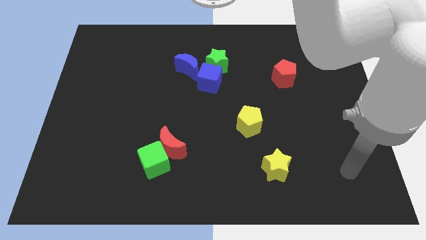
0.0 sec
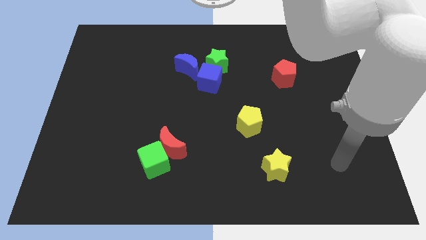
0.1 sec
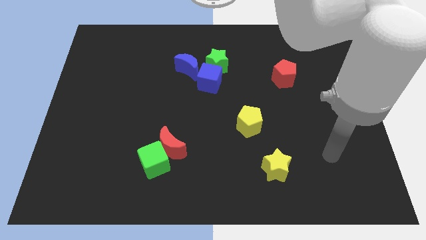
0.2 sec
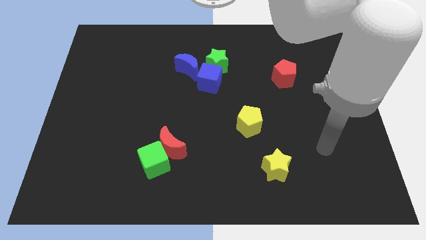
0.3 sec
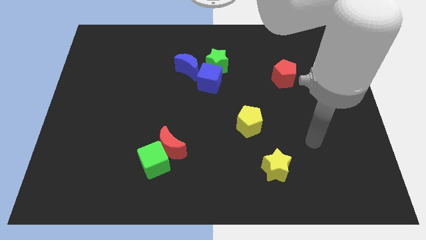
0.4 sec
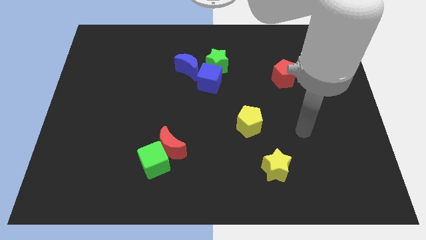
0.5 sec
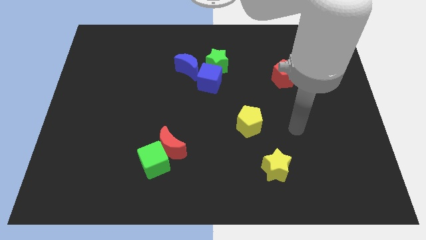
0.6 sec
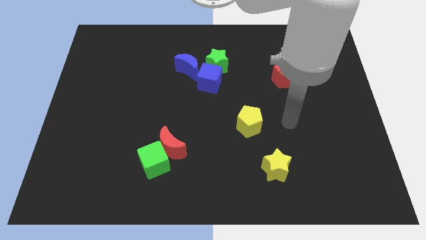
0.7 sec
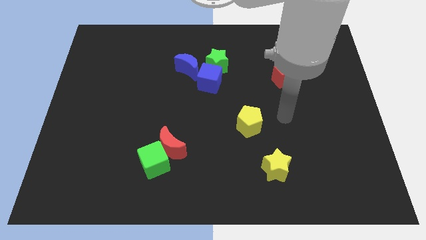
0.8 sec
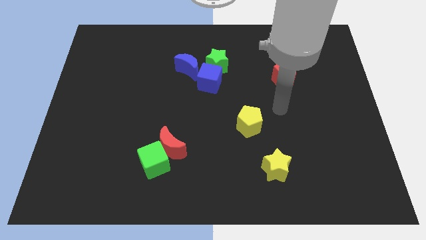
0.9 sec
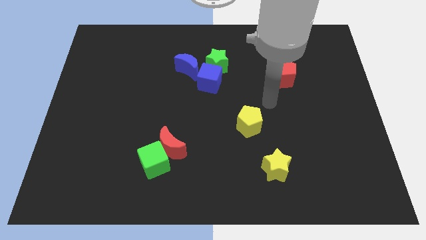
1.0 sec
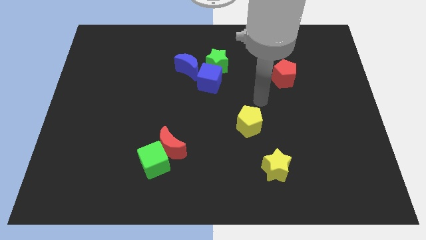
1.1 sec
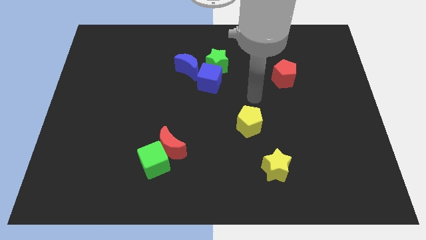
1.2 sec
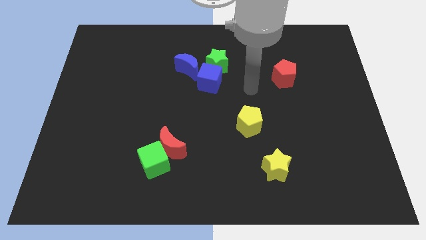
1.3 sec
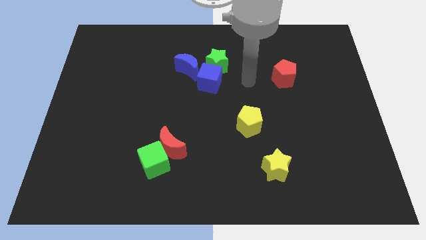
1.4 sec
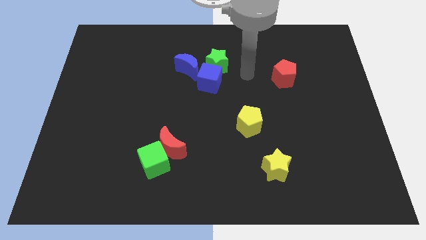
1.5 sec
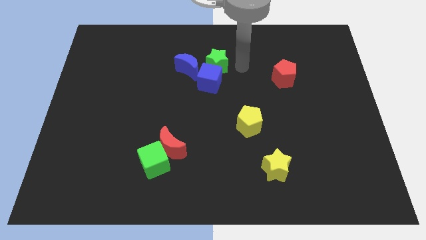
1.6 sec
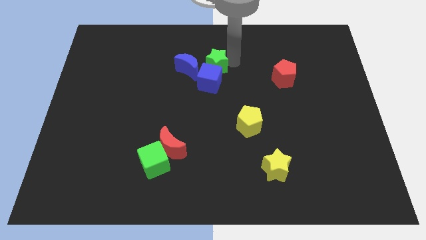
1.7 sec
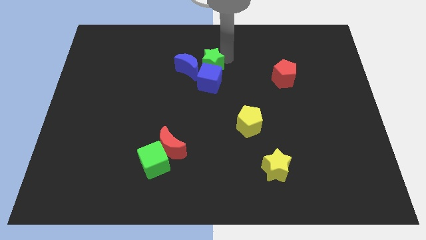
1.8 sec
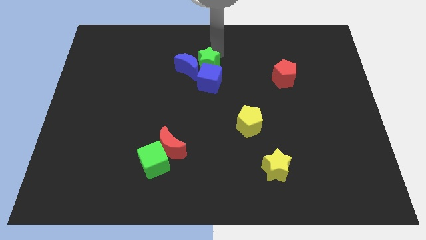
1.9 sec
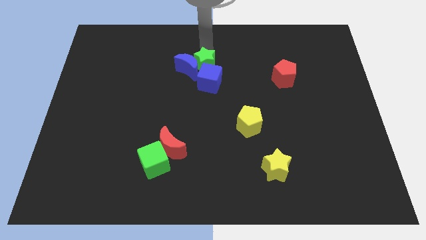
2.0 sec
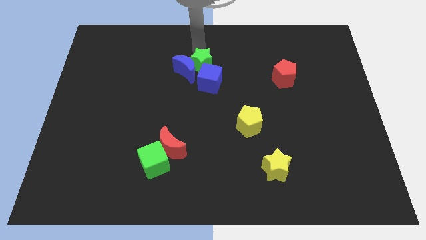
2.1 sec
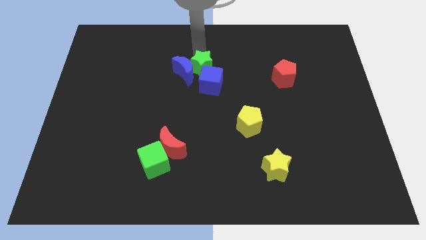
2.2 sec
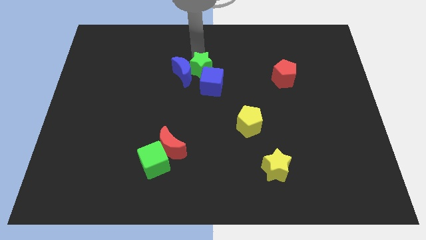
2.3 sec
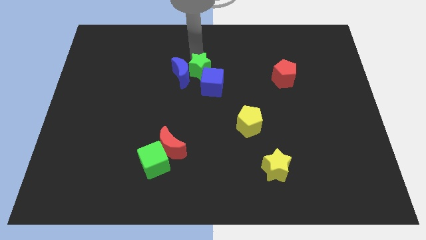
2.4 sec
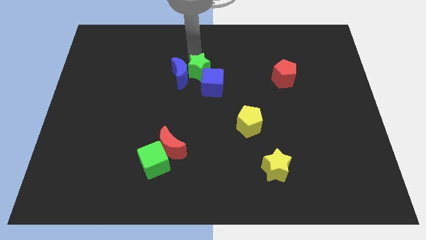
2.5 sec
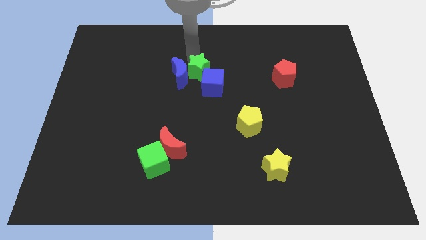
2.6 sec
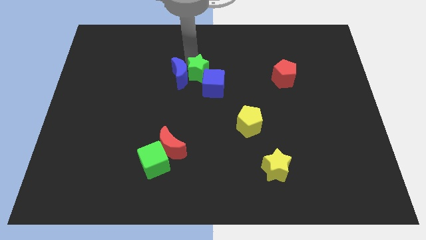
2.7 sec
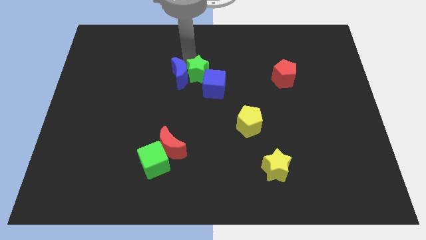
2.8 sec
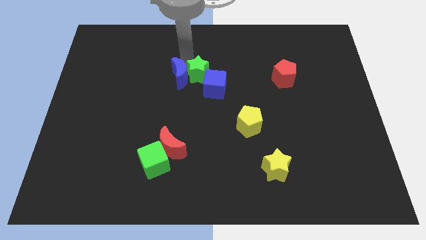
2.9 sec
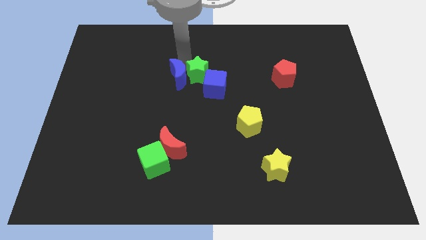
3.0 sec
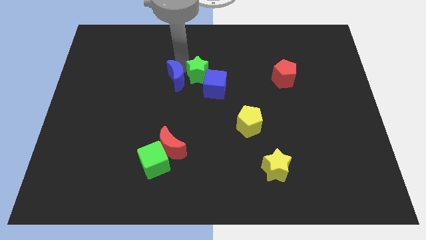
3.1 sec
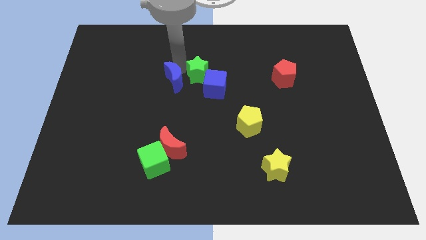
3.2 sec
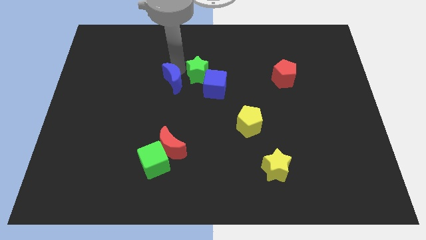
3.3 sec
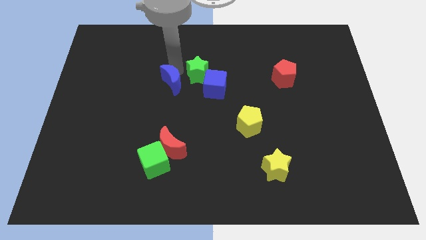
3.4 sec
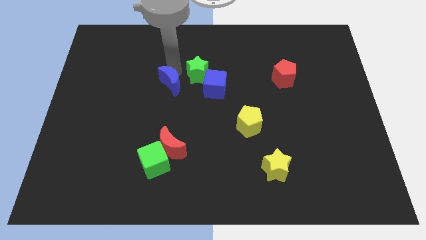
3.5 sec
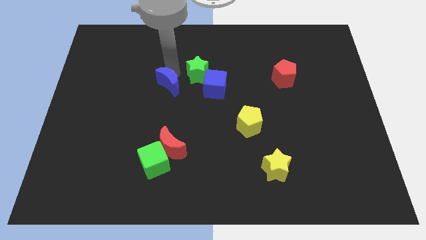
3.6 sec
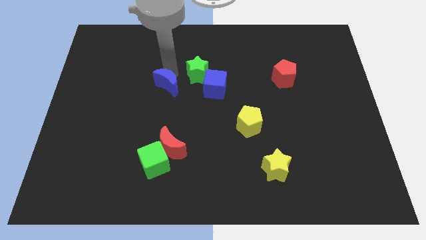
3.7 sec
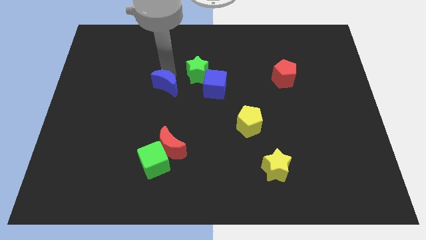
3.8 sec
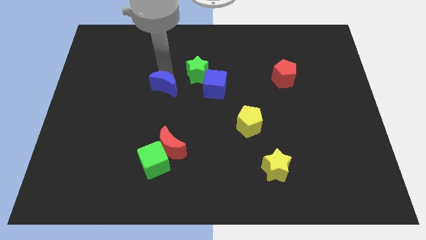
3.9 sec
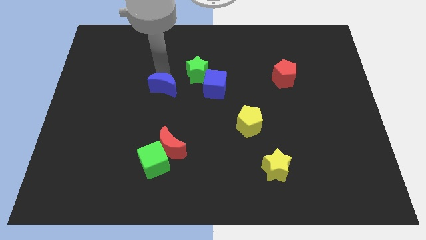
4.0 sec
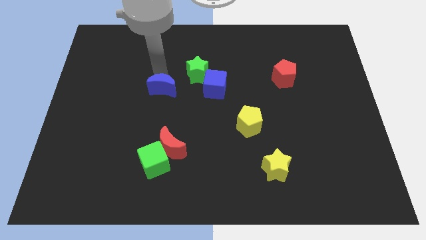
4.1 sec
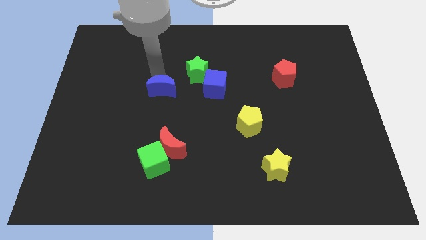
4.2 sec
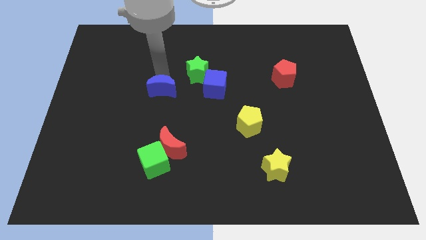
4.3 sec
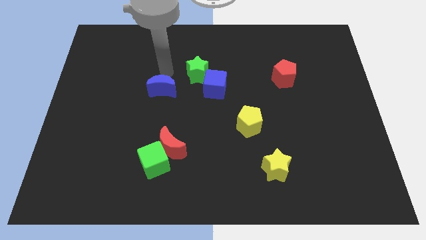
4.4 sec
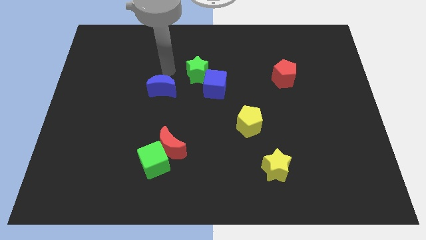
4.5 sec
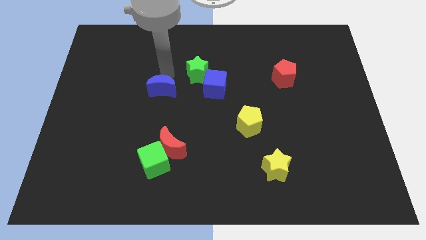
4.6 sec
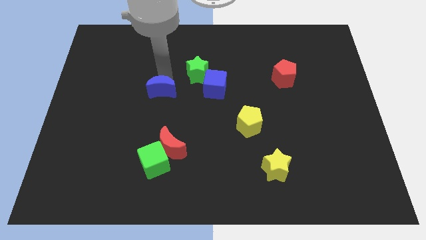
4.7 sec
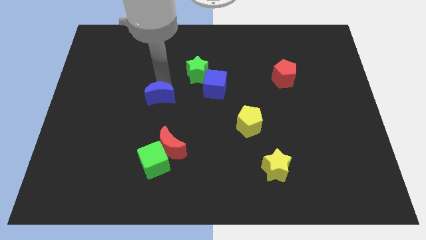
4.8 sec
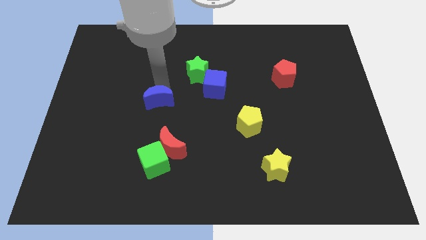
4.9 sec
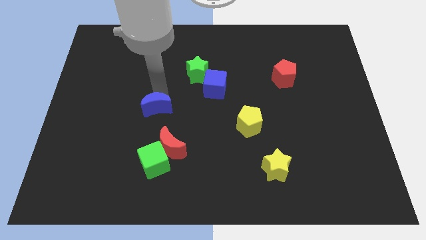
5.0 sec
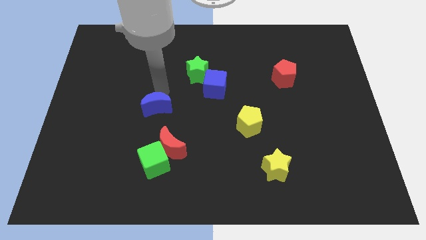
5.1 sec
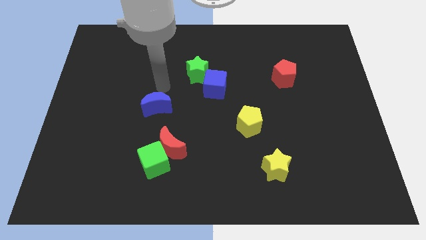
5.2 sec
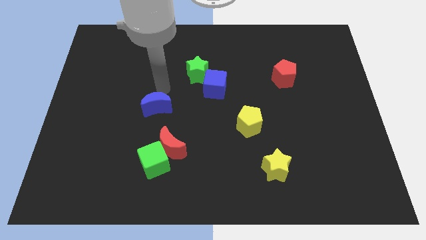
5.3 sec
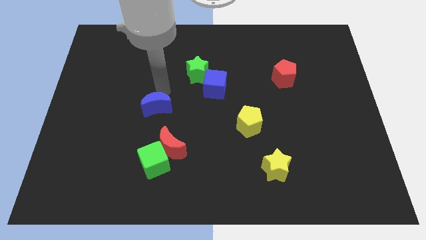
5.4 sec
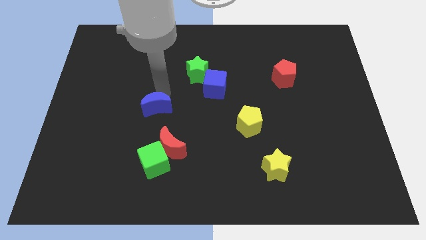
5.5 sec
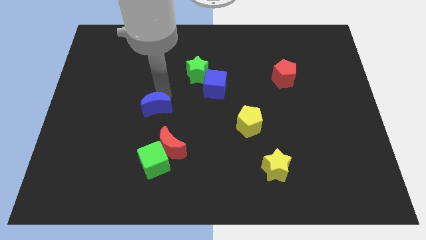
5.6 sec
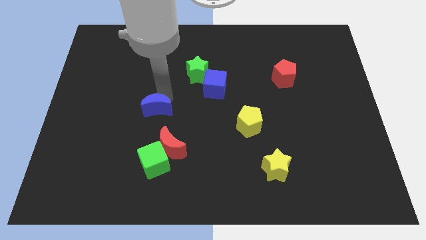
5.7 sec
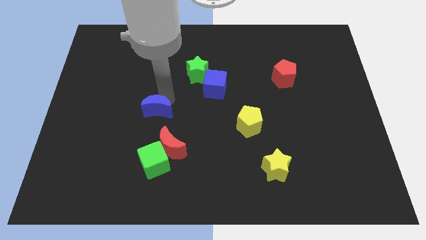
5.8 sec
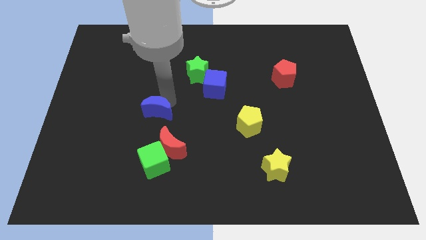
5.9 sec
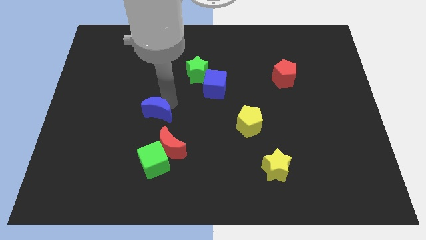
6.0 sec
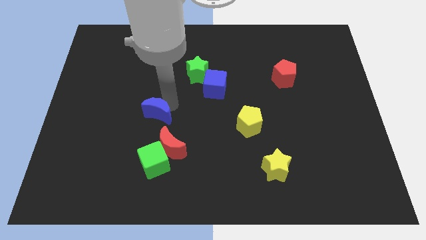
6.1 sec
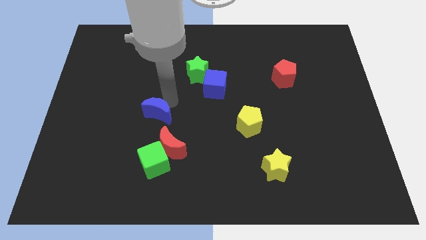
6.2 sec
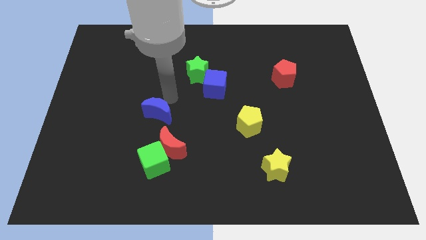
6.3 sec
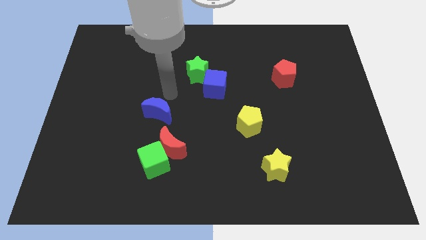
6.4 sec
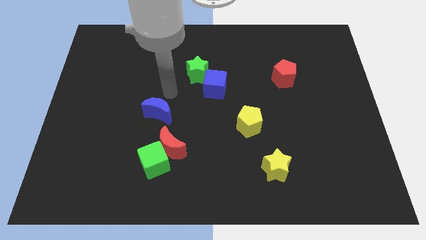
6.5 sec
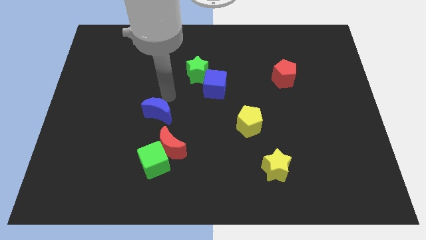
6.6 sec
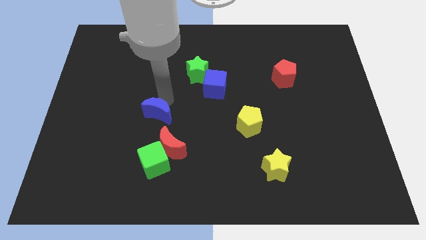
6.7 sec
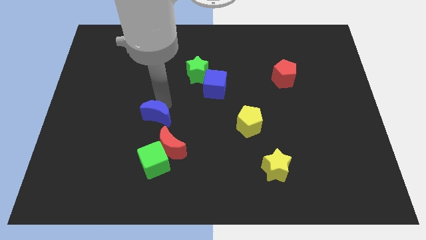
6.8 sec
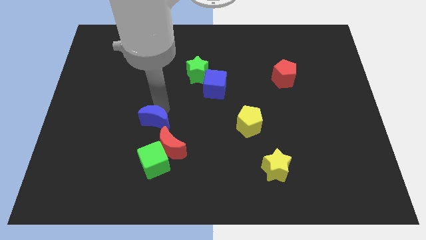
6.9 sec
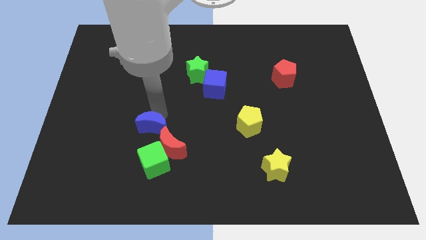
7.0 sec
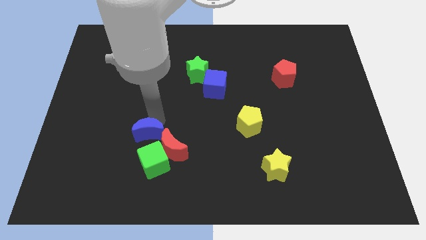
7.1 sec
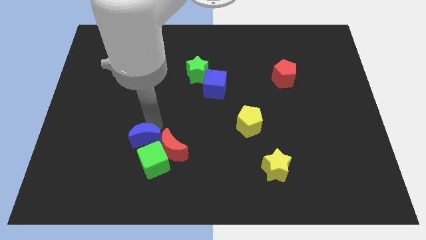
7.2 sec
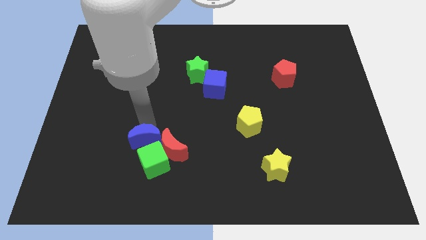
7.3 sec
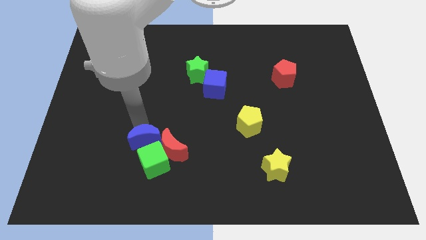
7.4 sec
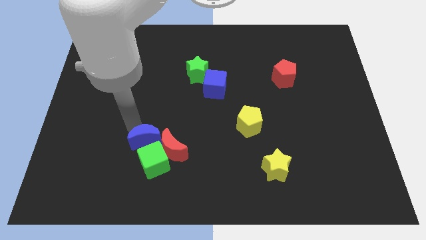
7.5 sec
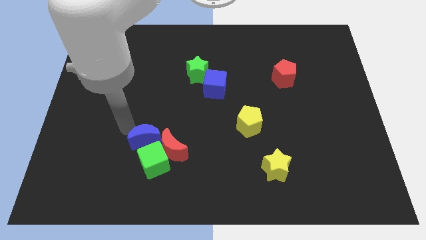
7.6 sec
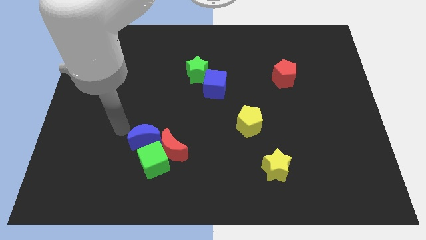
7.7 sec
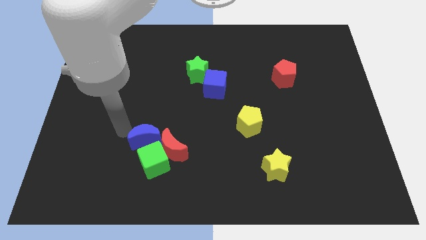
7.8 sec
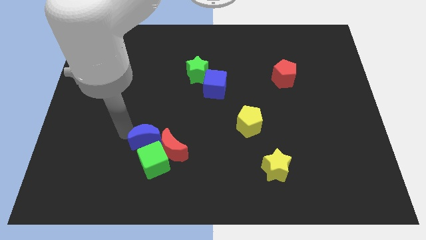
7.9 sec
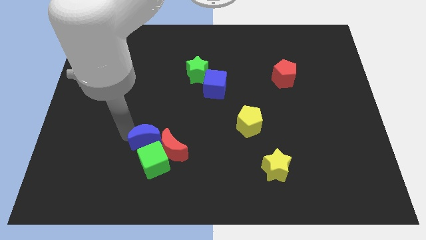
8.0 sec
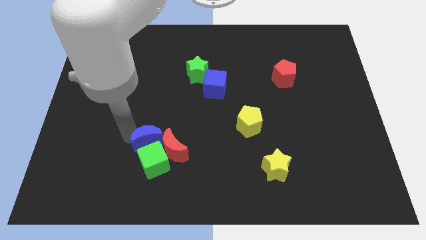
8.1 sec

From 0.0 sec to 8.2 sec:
move the blue moon to the red moon
